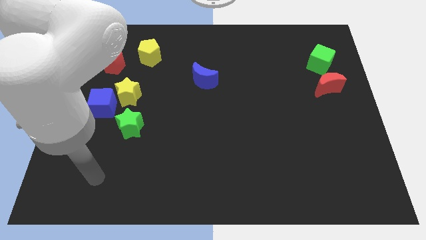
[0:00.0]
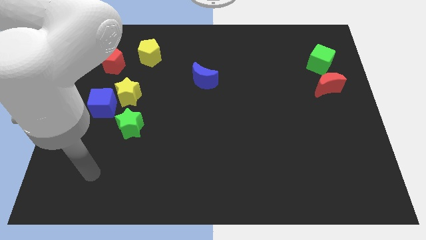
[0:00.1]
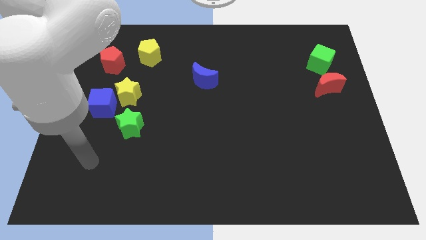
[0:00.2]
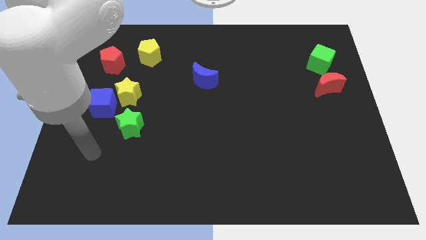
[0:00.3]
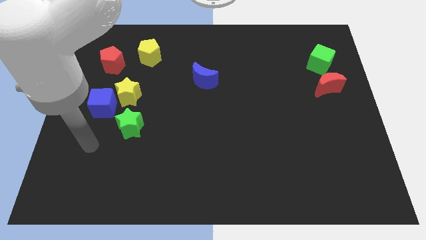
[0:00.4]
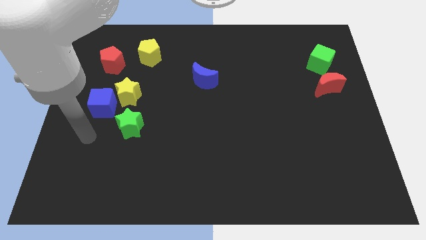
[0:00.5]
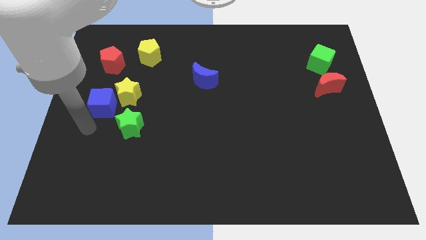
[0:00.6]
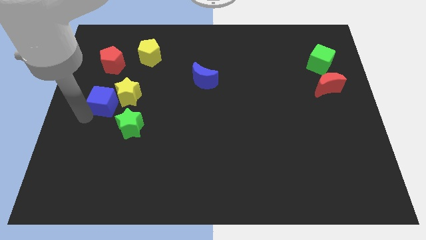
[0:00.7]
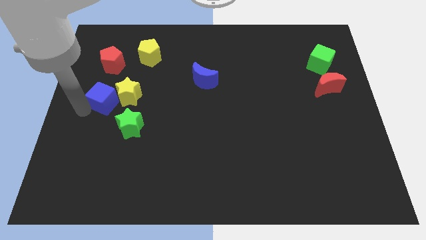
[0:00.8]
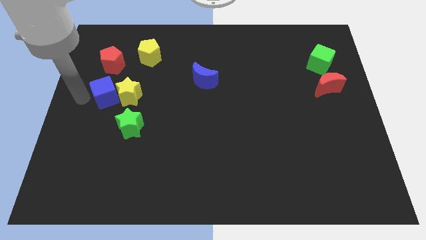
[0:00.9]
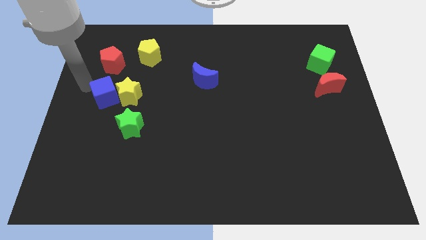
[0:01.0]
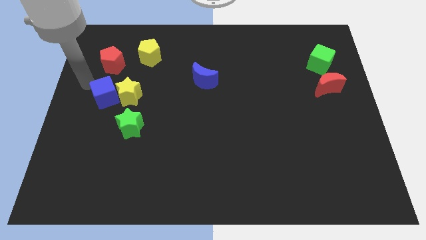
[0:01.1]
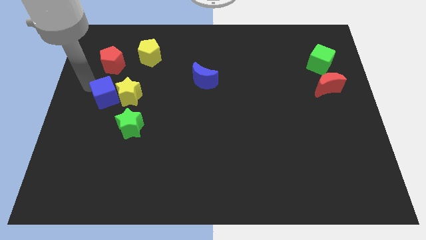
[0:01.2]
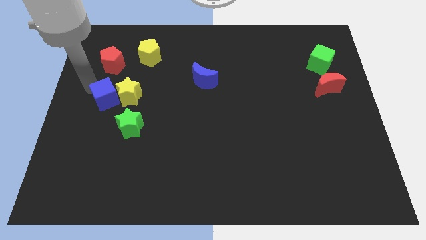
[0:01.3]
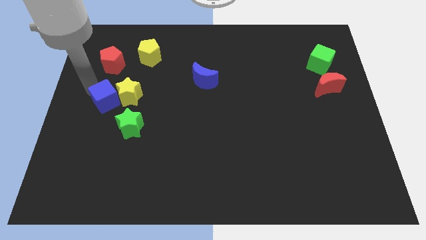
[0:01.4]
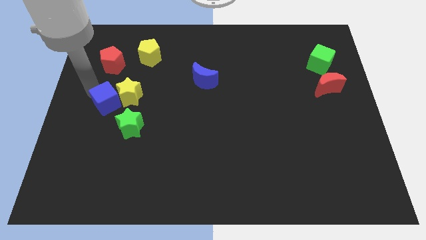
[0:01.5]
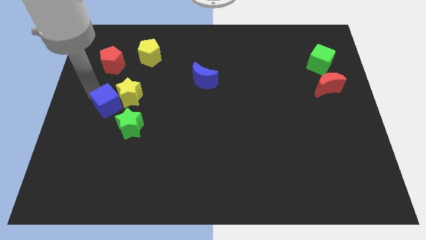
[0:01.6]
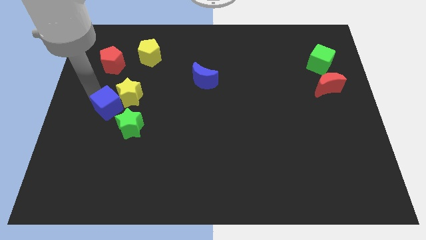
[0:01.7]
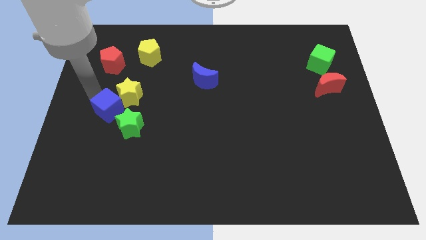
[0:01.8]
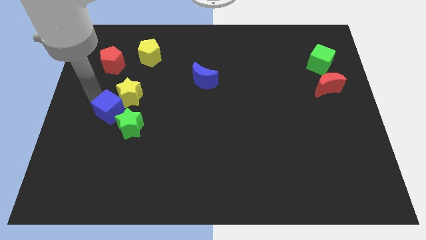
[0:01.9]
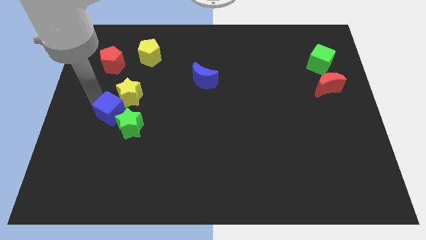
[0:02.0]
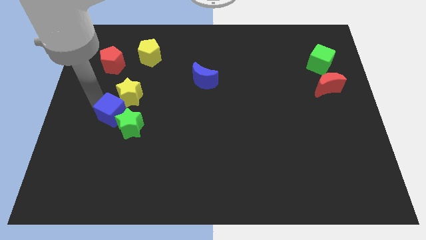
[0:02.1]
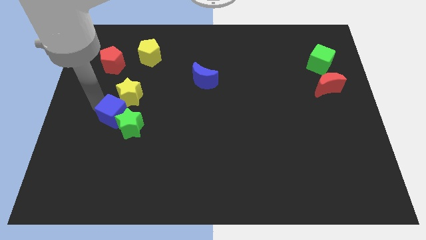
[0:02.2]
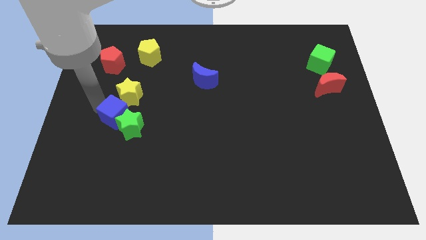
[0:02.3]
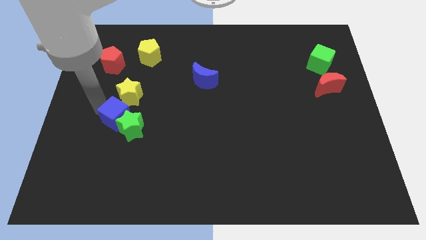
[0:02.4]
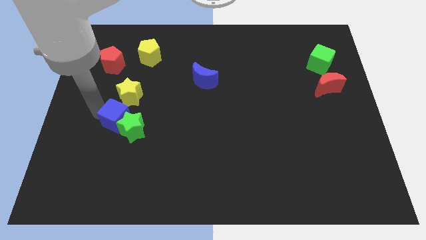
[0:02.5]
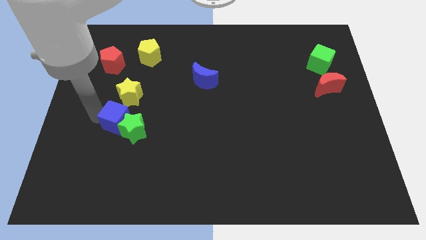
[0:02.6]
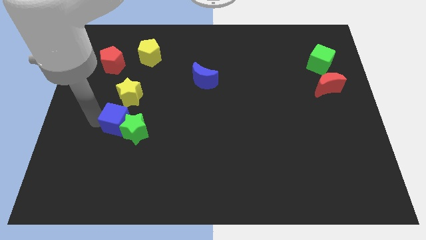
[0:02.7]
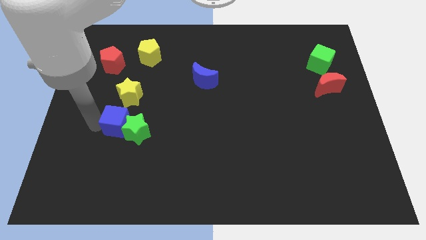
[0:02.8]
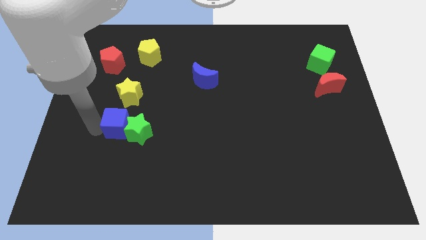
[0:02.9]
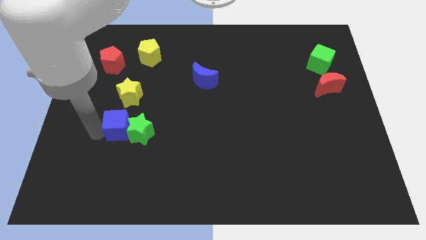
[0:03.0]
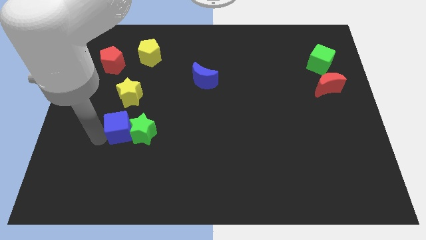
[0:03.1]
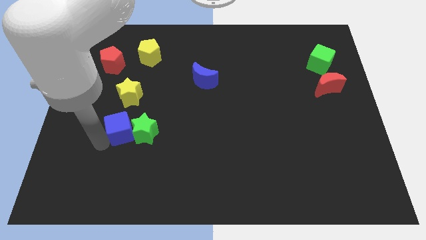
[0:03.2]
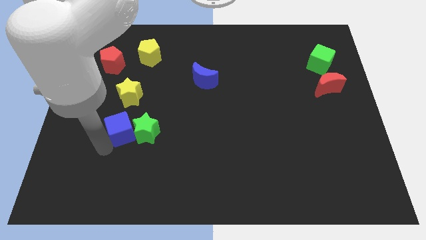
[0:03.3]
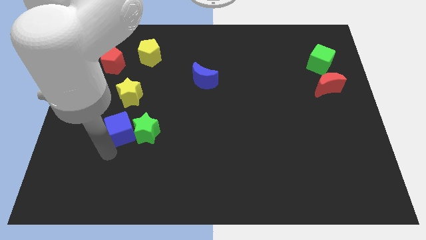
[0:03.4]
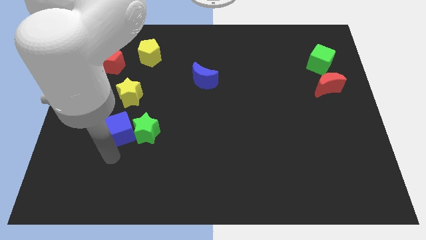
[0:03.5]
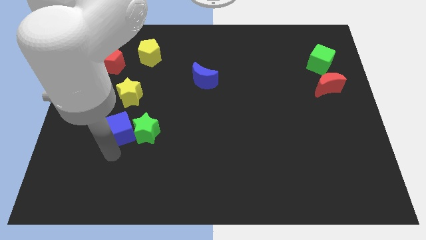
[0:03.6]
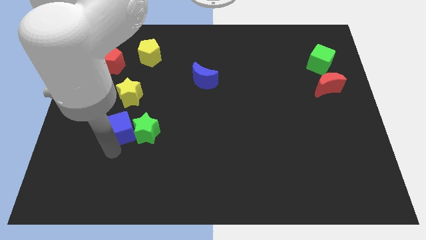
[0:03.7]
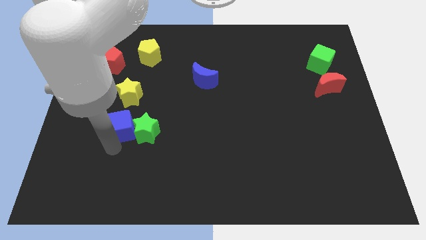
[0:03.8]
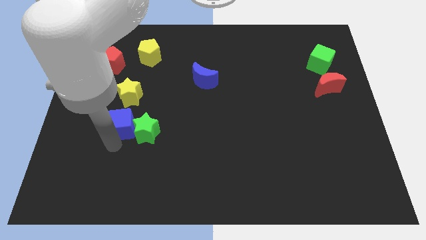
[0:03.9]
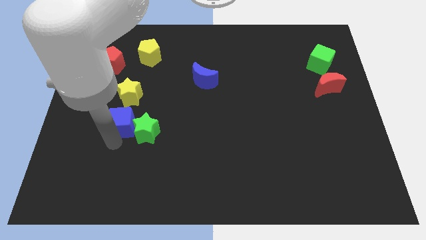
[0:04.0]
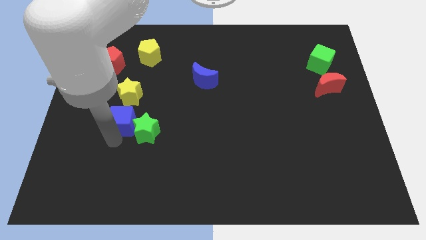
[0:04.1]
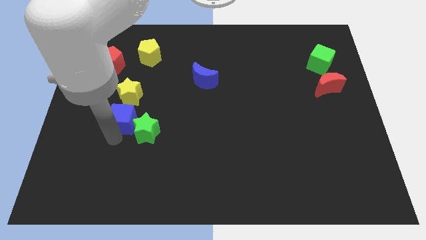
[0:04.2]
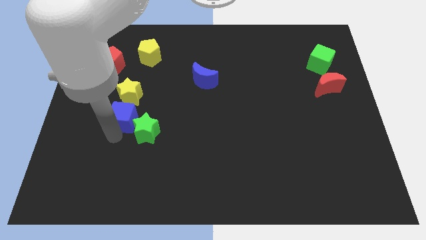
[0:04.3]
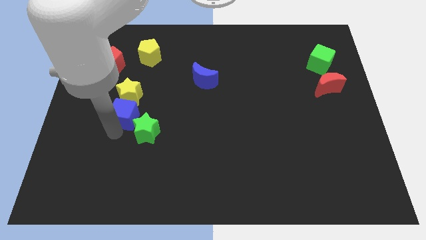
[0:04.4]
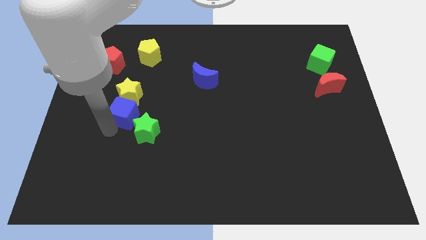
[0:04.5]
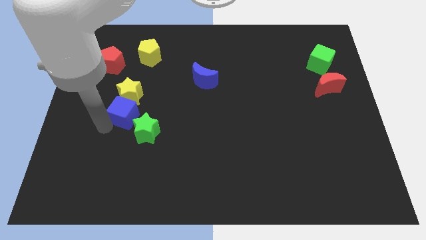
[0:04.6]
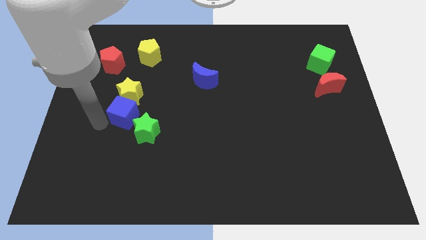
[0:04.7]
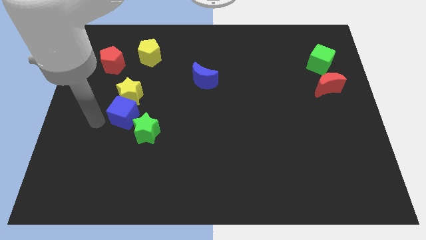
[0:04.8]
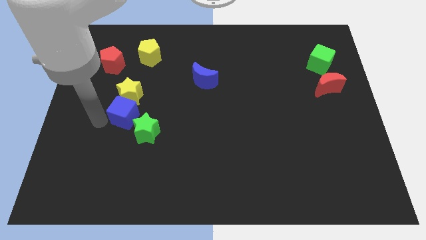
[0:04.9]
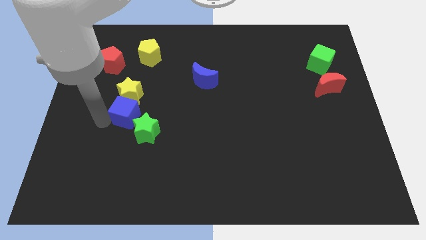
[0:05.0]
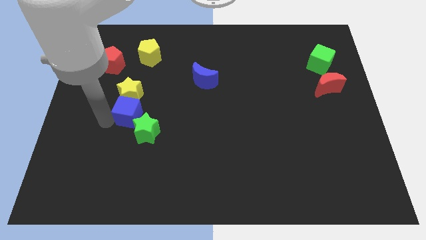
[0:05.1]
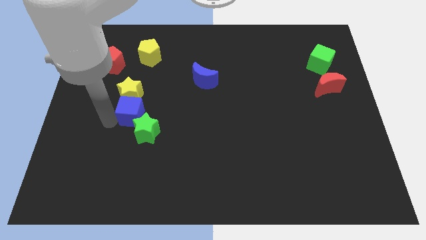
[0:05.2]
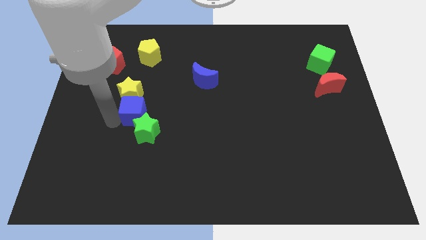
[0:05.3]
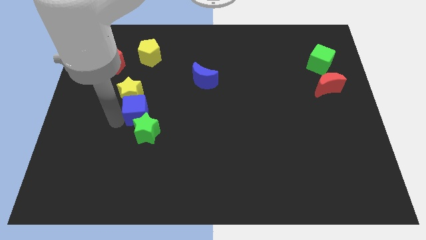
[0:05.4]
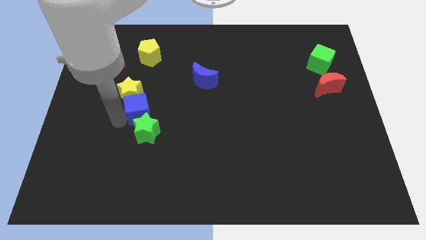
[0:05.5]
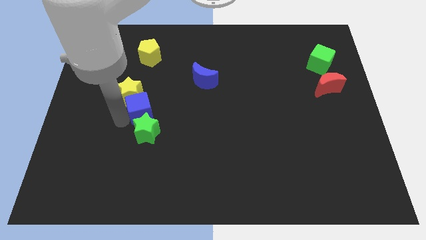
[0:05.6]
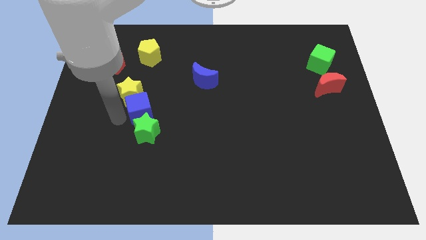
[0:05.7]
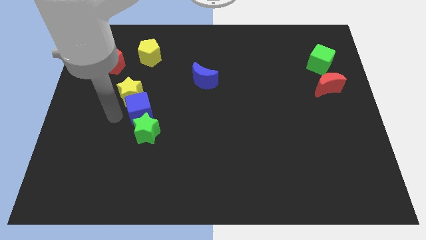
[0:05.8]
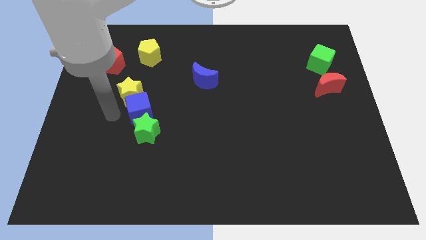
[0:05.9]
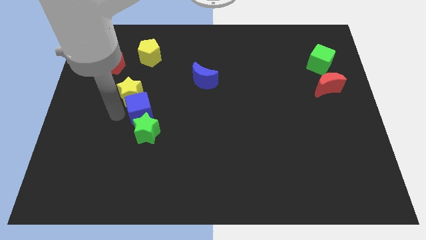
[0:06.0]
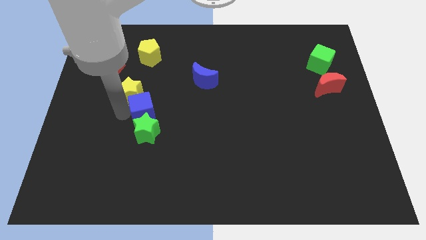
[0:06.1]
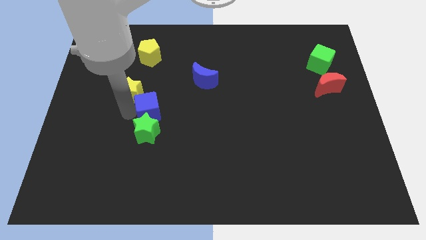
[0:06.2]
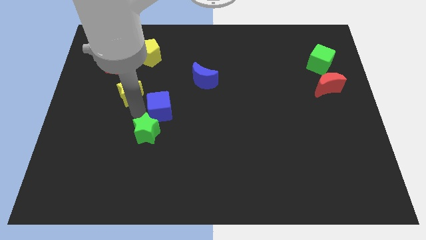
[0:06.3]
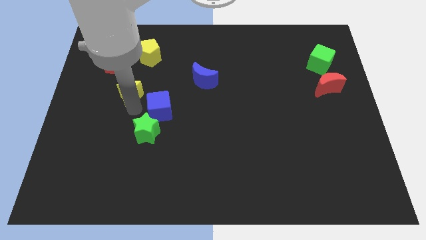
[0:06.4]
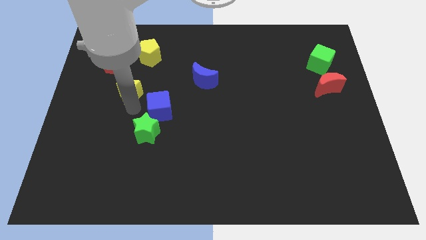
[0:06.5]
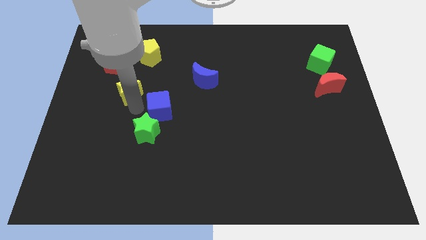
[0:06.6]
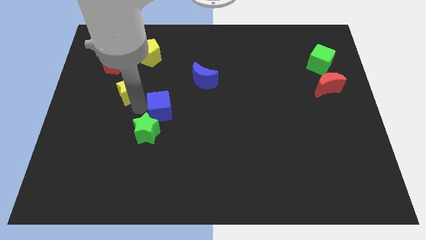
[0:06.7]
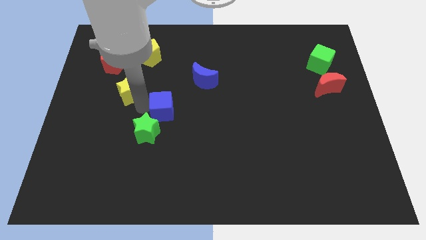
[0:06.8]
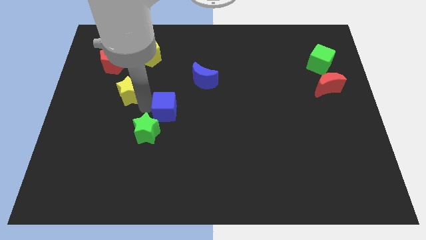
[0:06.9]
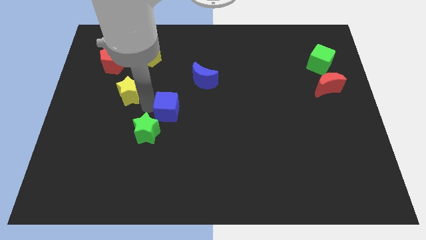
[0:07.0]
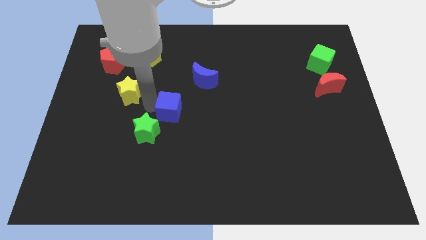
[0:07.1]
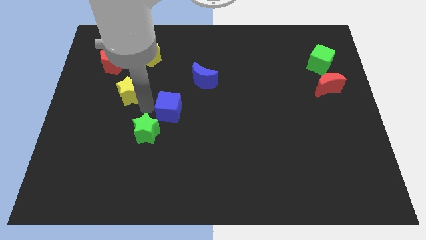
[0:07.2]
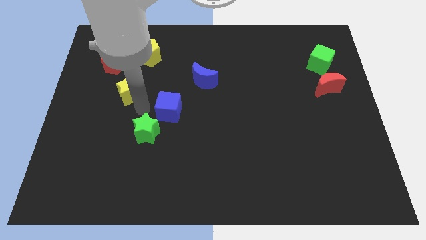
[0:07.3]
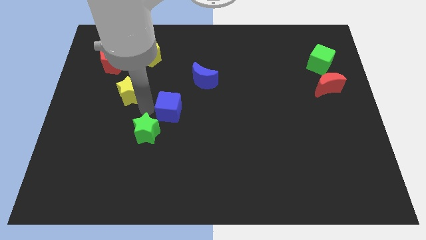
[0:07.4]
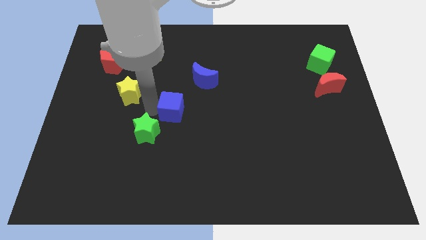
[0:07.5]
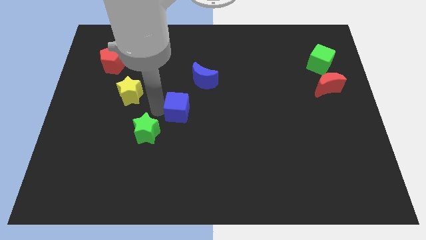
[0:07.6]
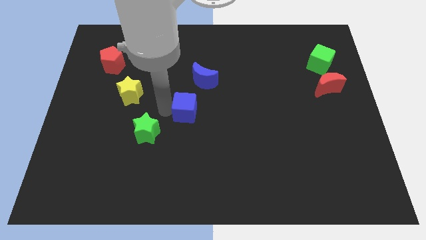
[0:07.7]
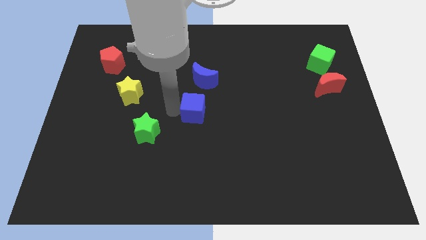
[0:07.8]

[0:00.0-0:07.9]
push the blue cube to the right

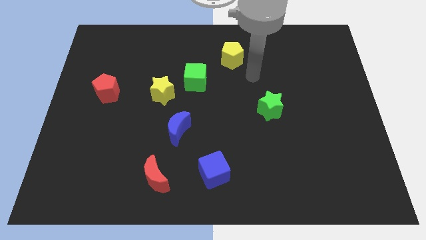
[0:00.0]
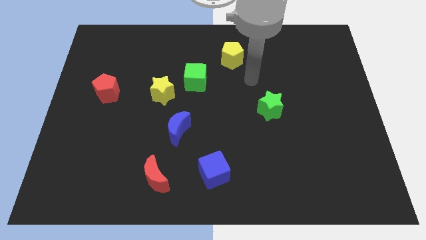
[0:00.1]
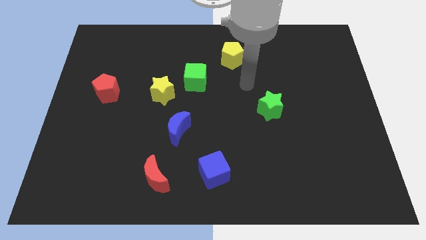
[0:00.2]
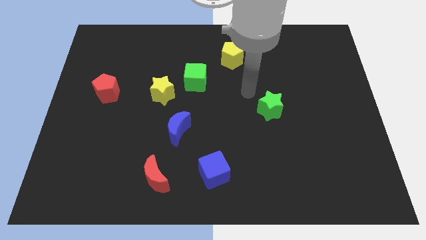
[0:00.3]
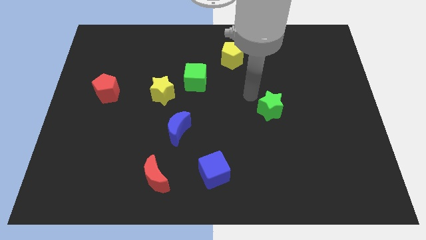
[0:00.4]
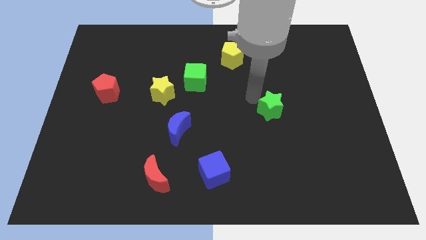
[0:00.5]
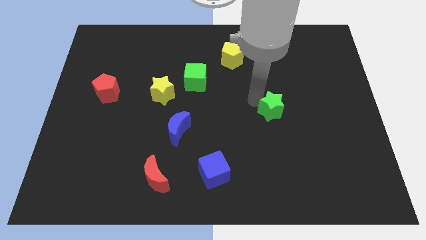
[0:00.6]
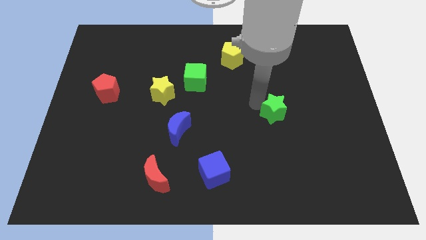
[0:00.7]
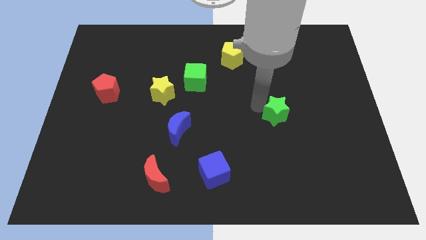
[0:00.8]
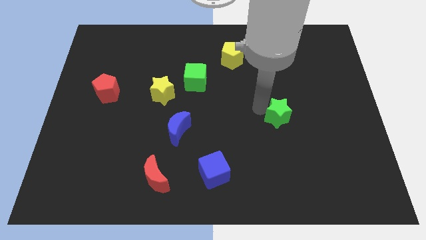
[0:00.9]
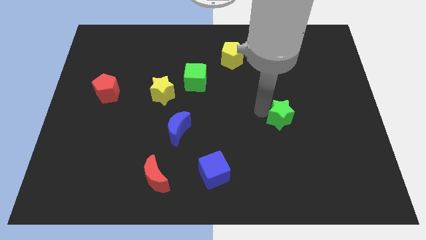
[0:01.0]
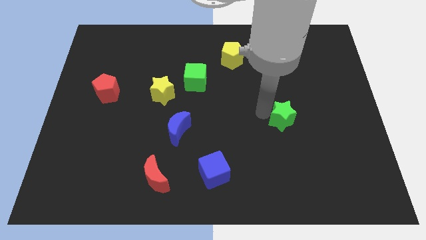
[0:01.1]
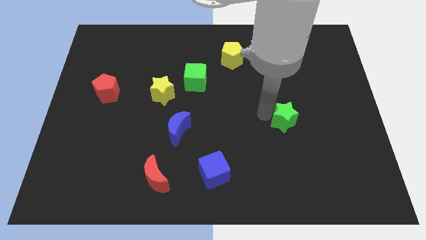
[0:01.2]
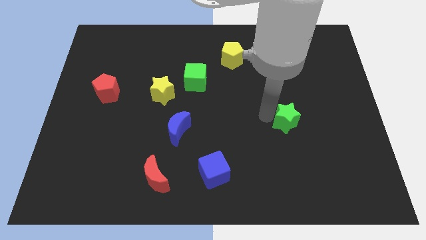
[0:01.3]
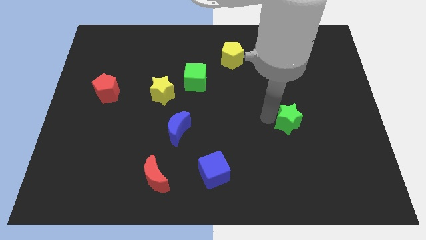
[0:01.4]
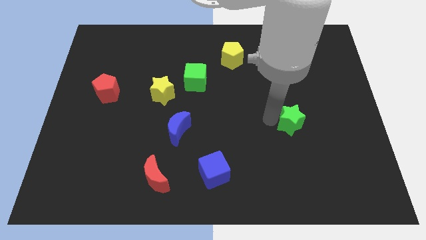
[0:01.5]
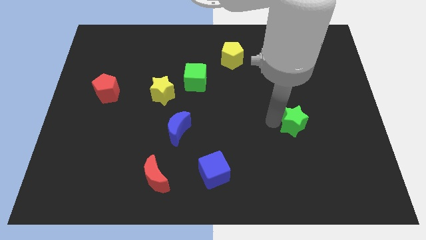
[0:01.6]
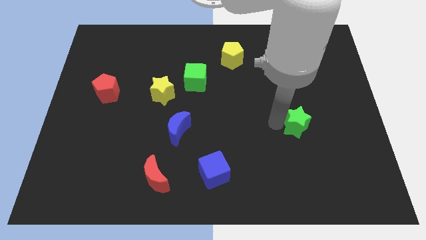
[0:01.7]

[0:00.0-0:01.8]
push the green star diagonally down and right a little bit
